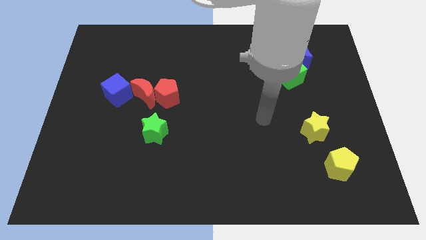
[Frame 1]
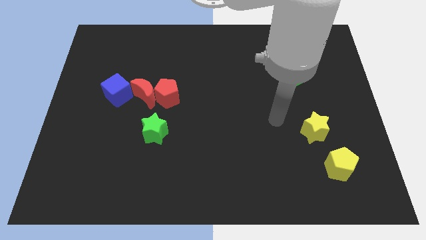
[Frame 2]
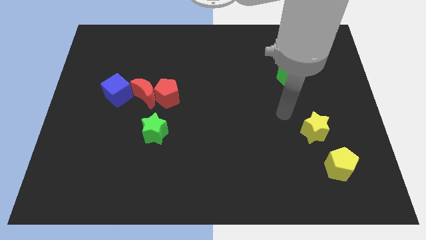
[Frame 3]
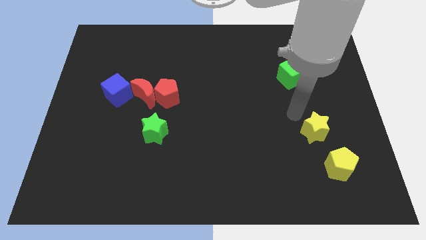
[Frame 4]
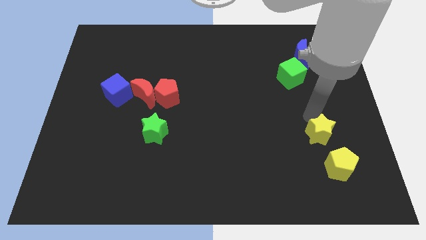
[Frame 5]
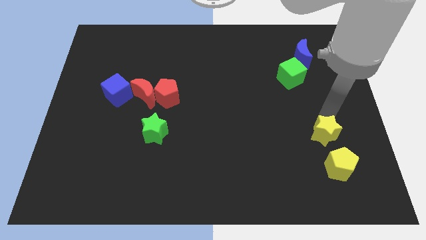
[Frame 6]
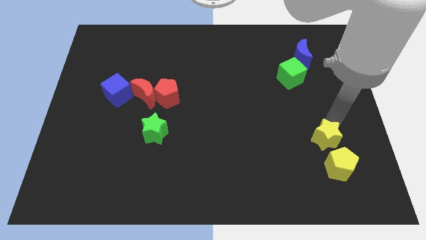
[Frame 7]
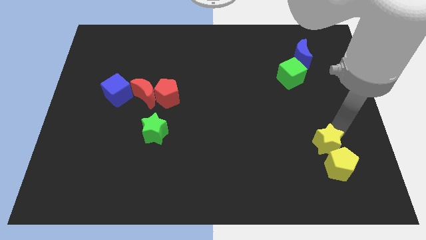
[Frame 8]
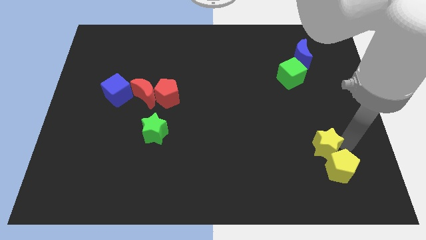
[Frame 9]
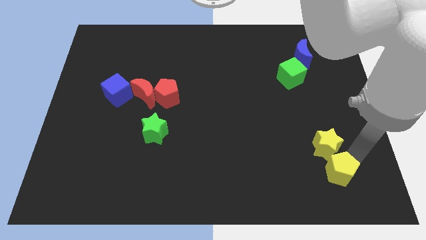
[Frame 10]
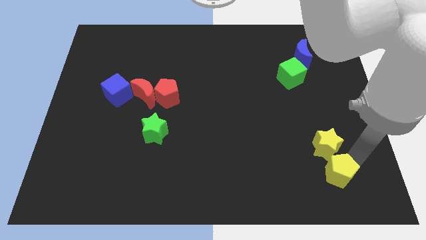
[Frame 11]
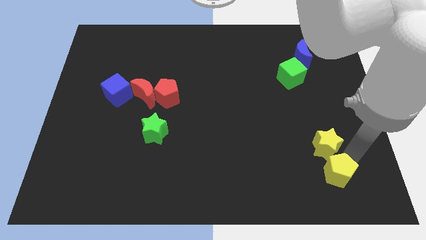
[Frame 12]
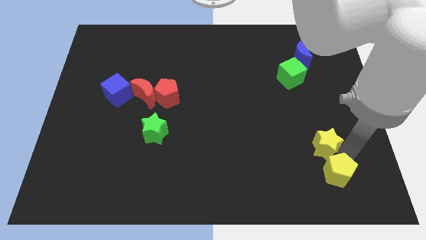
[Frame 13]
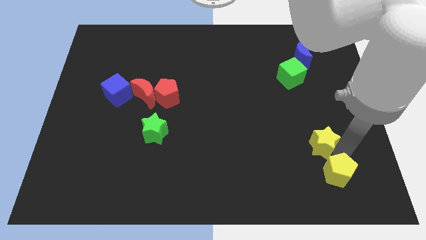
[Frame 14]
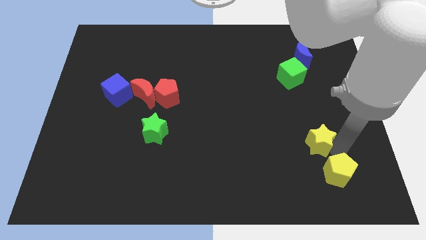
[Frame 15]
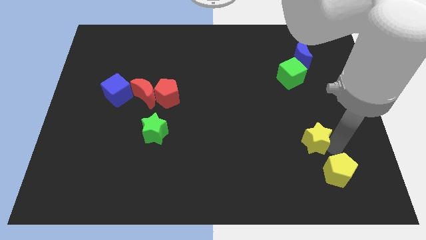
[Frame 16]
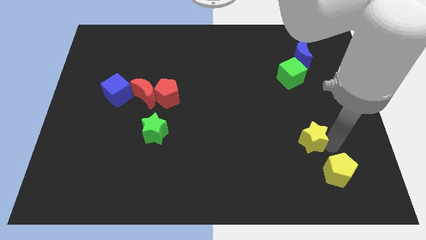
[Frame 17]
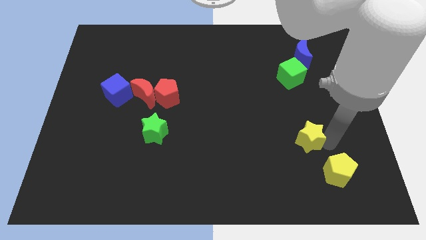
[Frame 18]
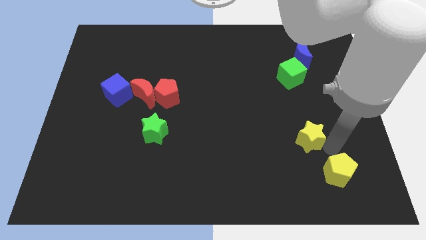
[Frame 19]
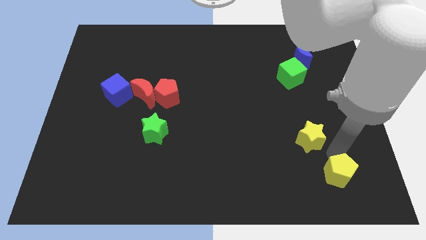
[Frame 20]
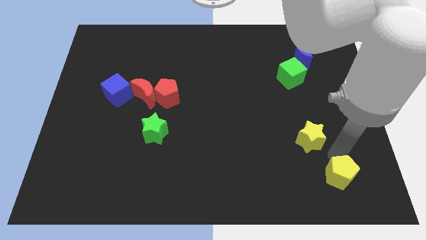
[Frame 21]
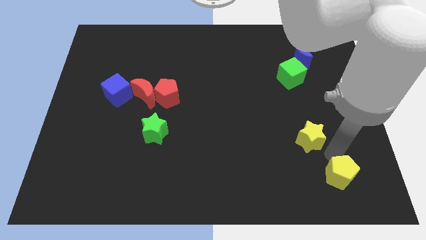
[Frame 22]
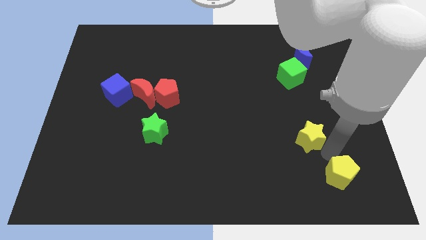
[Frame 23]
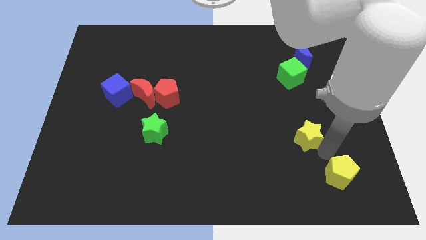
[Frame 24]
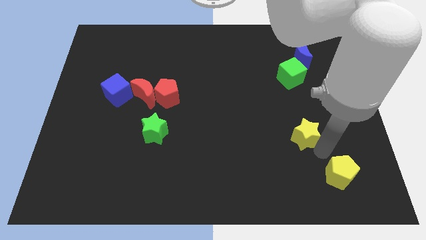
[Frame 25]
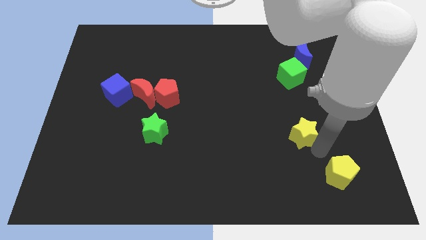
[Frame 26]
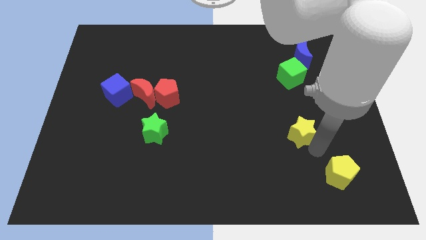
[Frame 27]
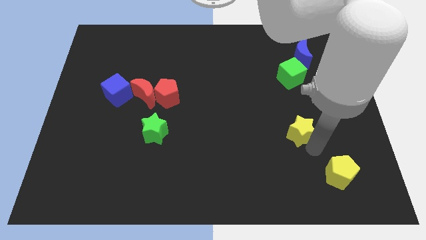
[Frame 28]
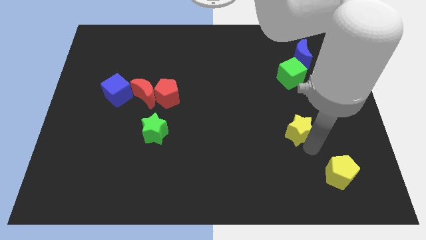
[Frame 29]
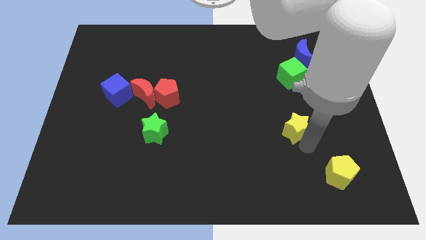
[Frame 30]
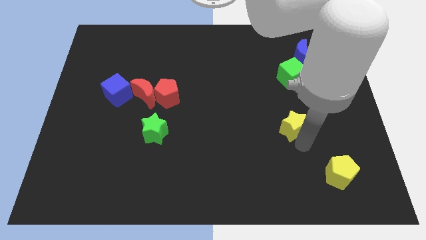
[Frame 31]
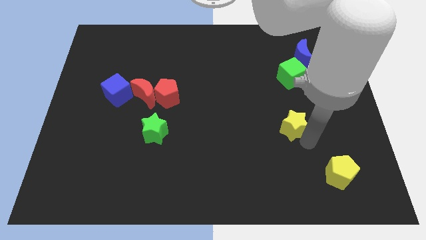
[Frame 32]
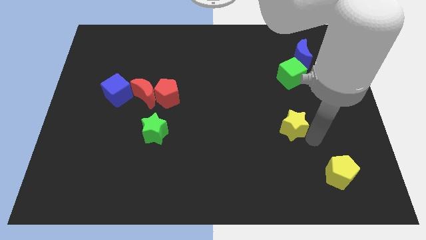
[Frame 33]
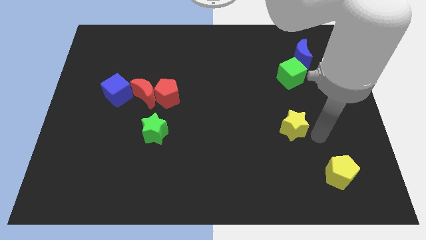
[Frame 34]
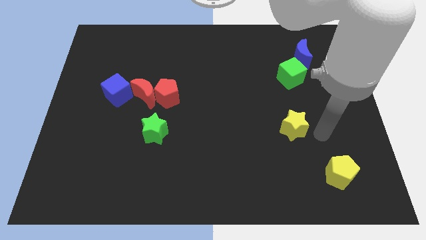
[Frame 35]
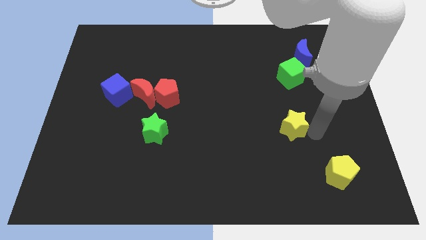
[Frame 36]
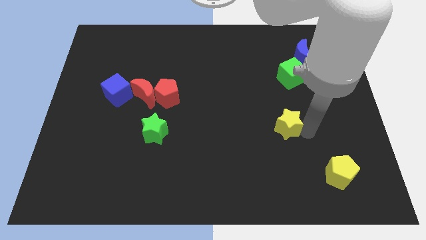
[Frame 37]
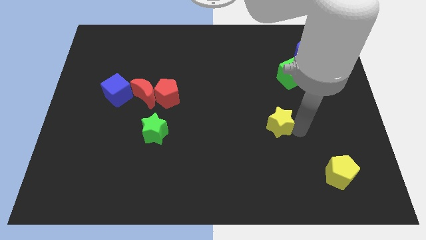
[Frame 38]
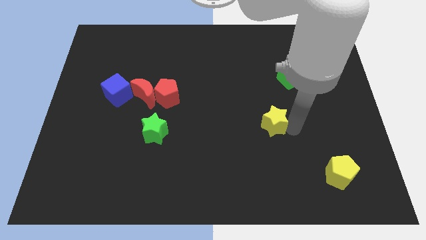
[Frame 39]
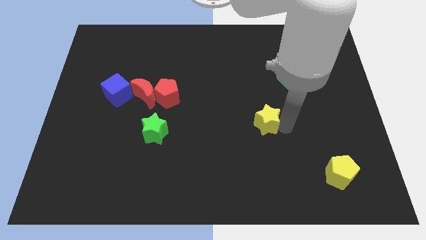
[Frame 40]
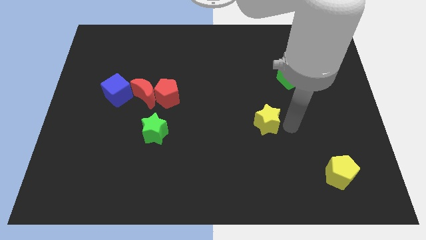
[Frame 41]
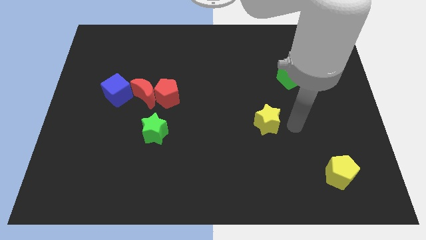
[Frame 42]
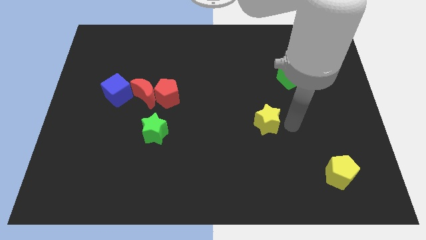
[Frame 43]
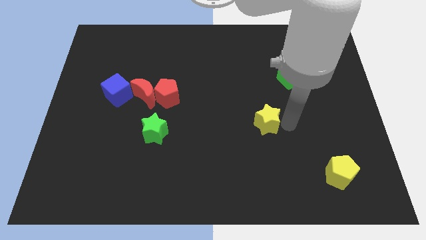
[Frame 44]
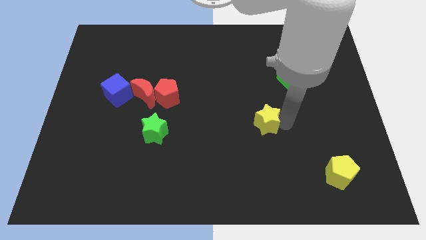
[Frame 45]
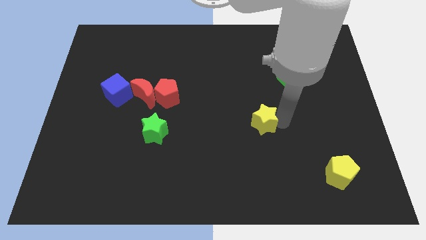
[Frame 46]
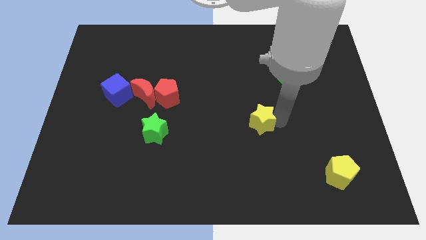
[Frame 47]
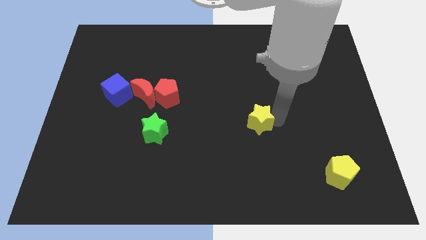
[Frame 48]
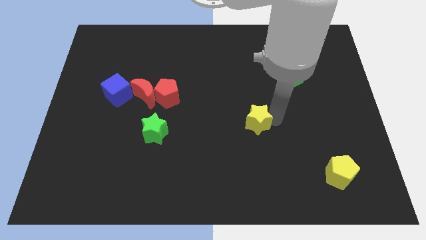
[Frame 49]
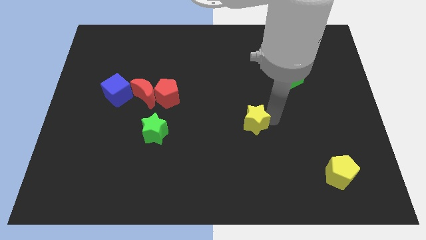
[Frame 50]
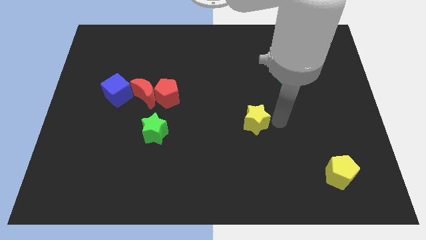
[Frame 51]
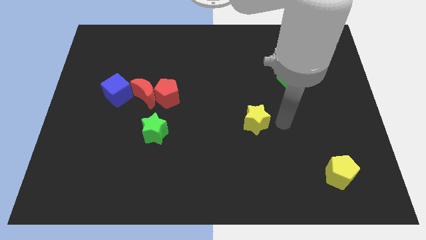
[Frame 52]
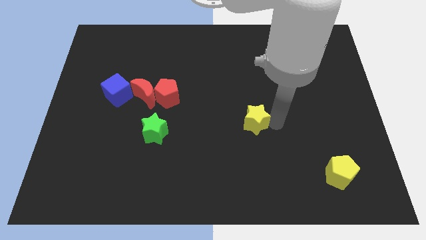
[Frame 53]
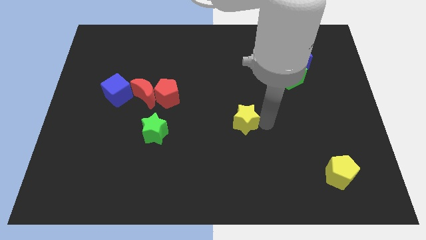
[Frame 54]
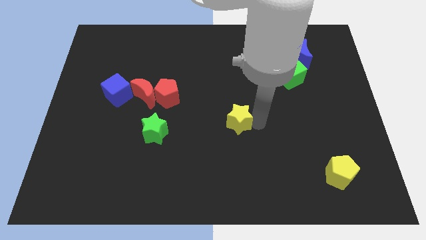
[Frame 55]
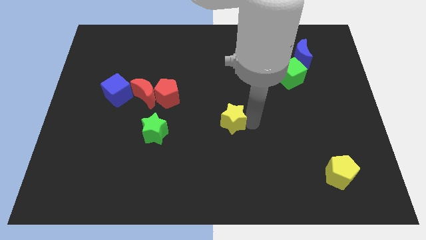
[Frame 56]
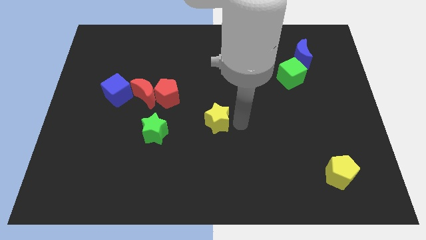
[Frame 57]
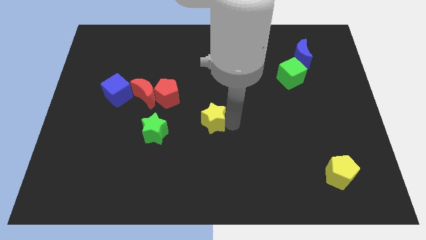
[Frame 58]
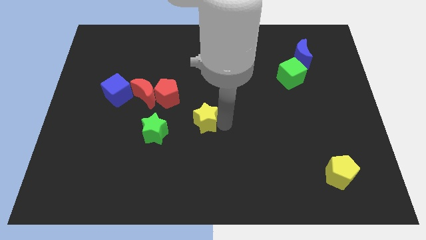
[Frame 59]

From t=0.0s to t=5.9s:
push the yellow star to the bottom right side of the red pentagon

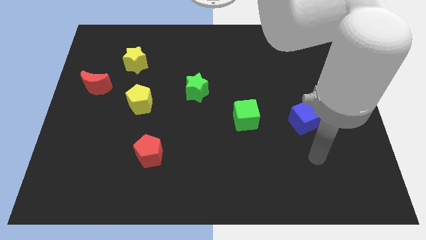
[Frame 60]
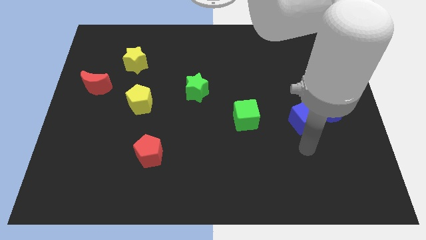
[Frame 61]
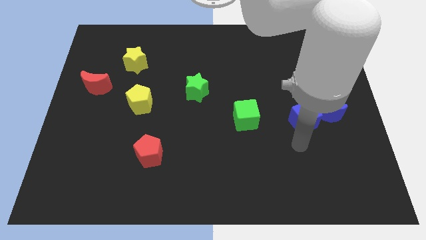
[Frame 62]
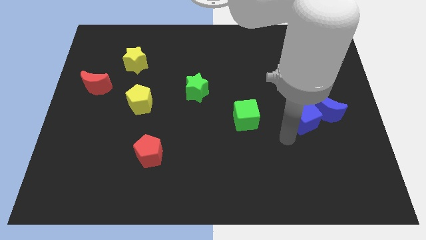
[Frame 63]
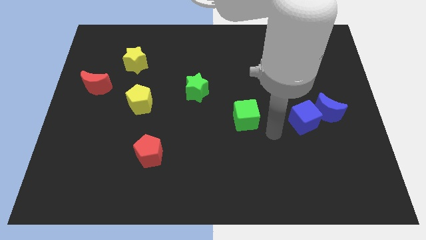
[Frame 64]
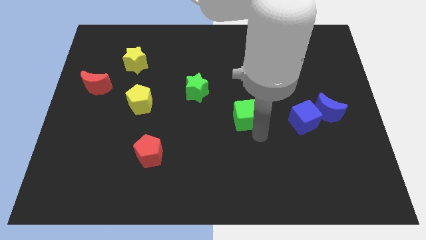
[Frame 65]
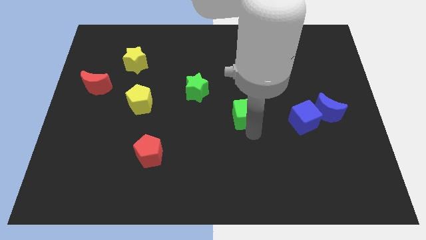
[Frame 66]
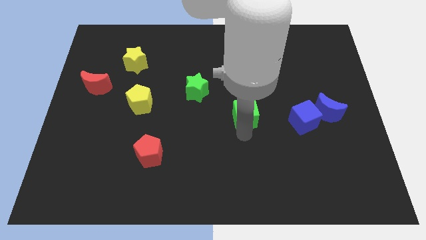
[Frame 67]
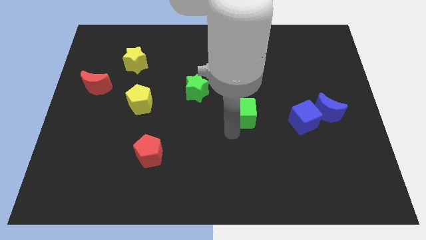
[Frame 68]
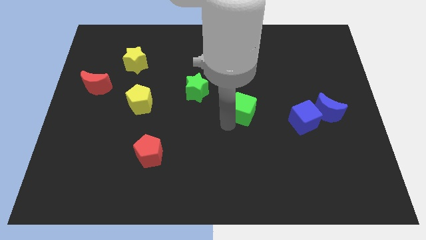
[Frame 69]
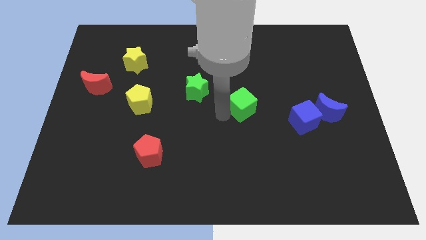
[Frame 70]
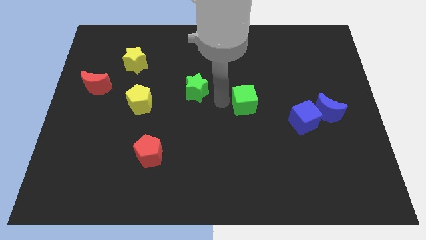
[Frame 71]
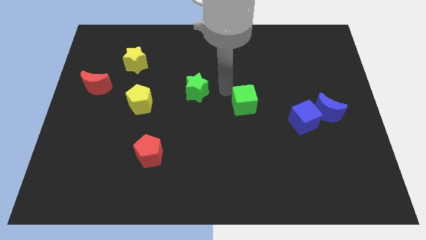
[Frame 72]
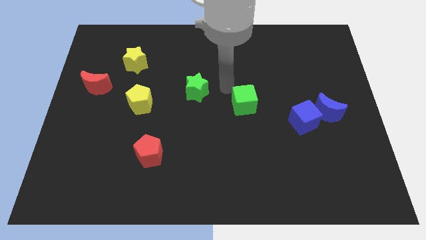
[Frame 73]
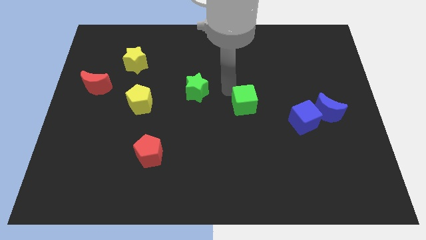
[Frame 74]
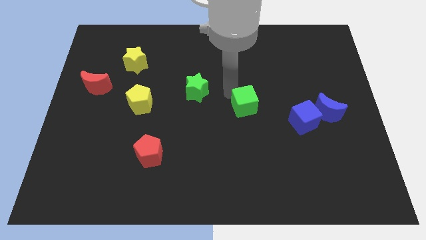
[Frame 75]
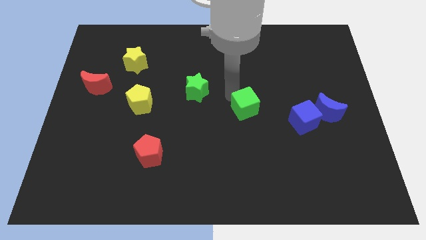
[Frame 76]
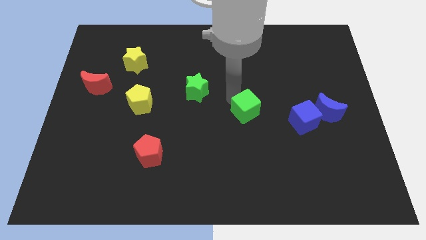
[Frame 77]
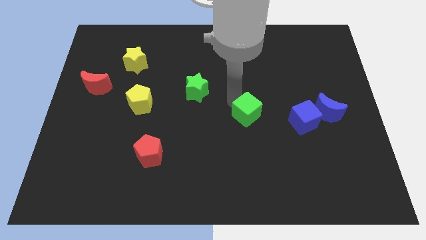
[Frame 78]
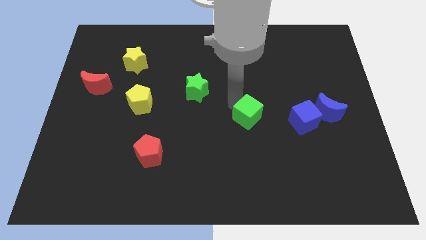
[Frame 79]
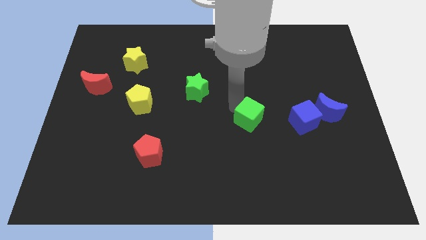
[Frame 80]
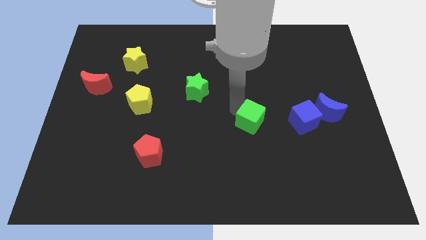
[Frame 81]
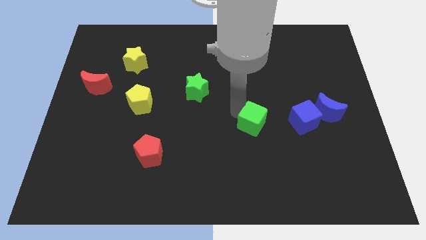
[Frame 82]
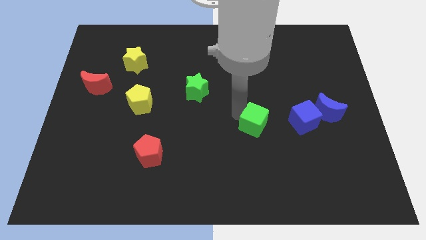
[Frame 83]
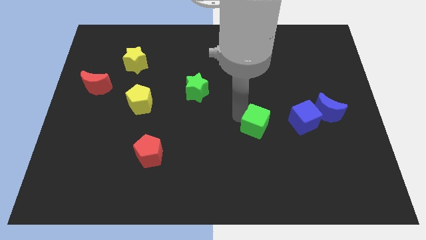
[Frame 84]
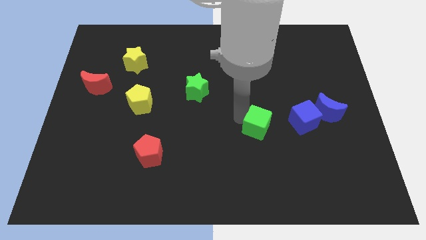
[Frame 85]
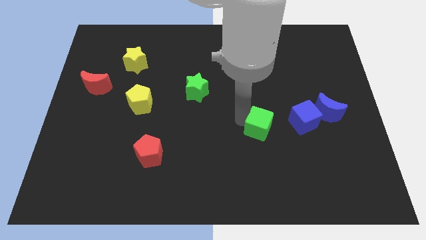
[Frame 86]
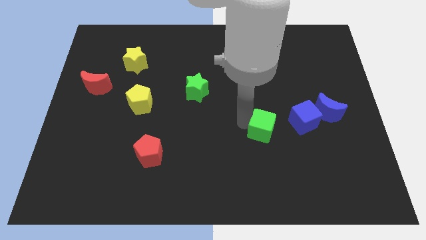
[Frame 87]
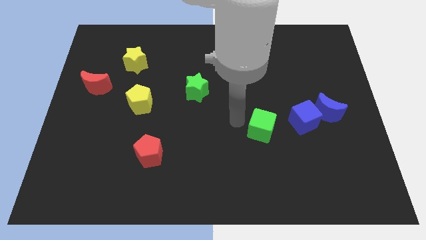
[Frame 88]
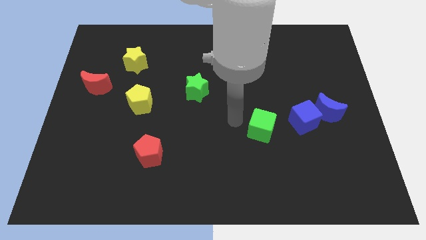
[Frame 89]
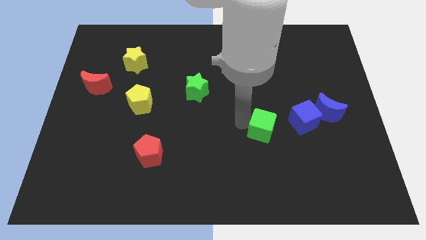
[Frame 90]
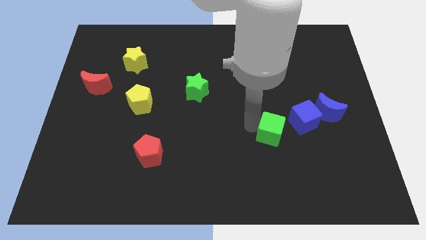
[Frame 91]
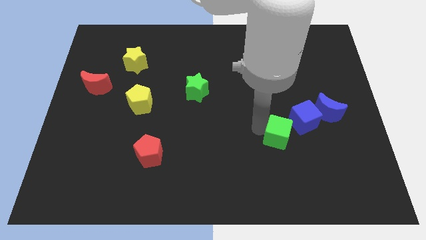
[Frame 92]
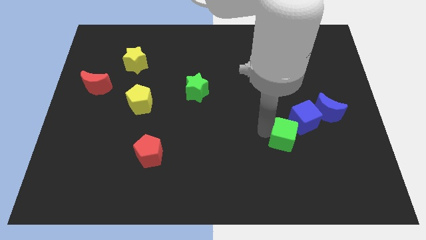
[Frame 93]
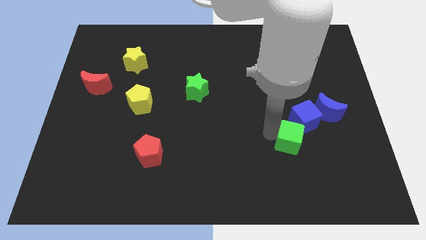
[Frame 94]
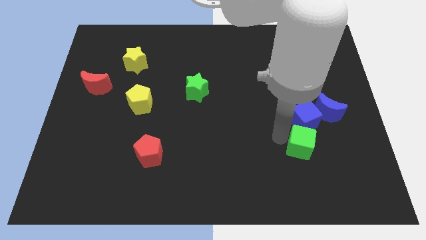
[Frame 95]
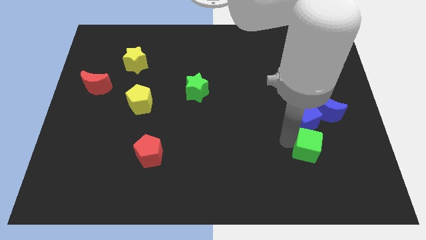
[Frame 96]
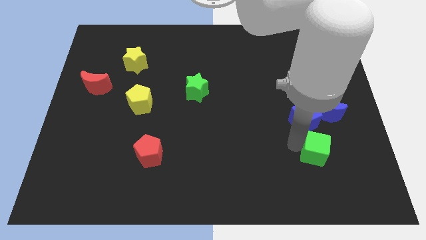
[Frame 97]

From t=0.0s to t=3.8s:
slide the green cube to the bottom of the blue moon
